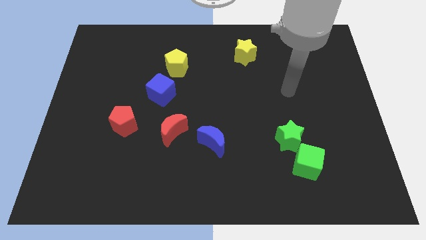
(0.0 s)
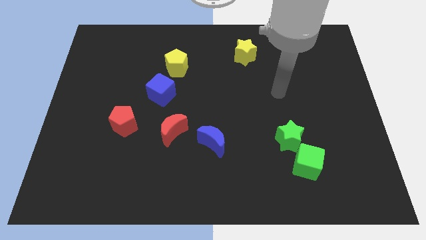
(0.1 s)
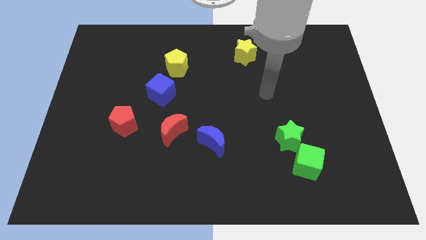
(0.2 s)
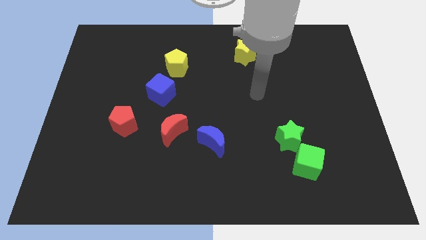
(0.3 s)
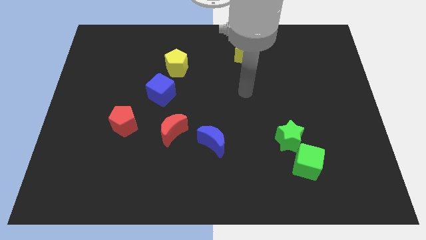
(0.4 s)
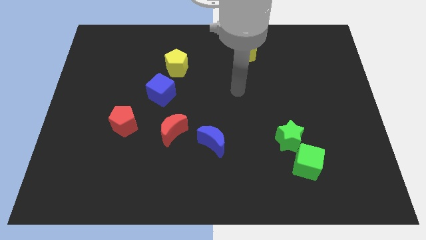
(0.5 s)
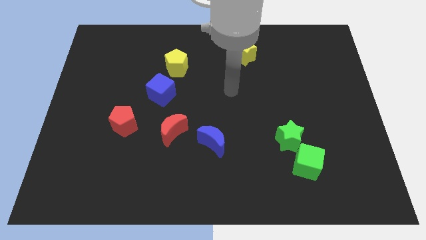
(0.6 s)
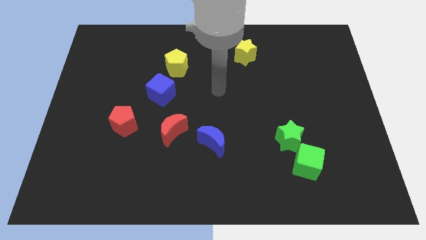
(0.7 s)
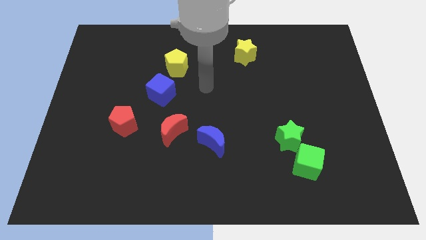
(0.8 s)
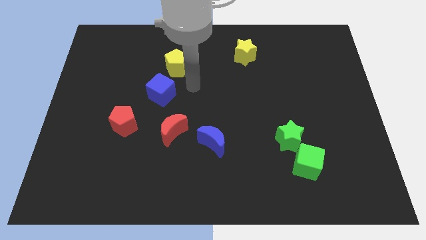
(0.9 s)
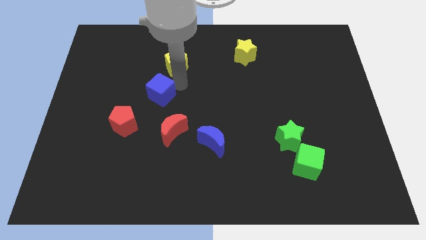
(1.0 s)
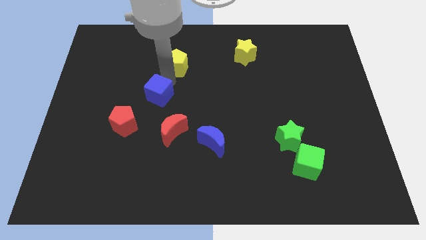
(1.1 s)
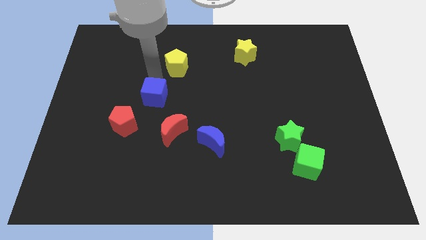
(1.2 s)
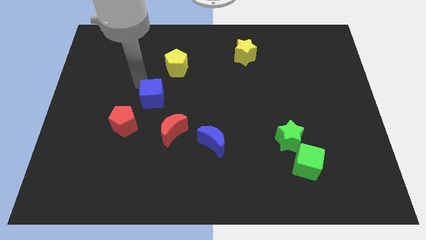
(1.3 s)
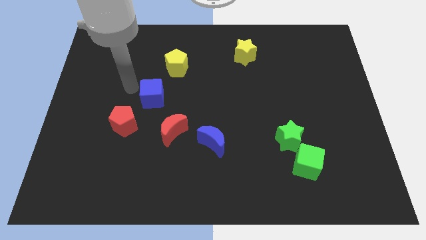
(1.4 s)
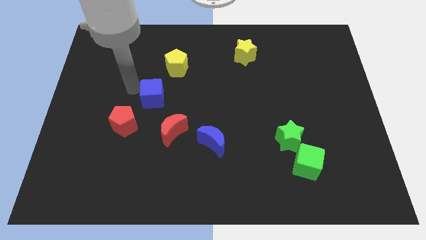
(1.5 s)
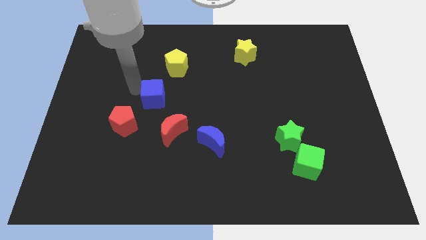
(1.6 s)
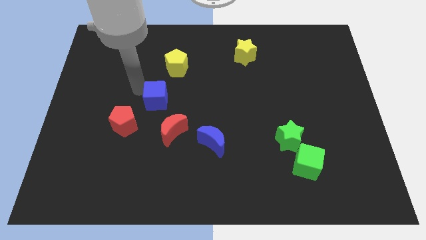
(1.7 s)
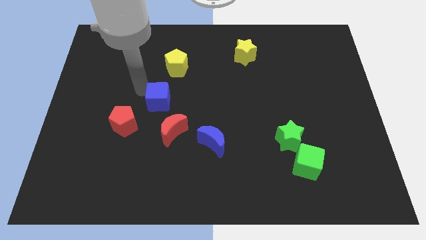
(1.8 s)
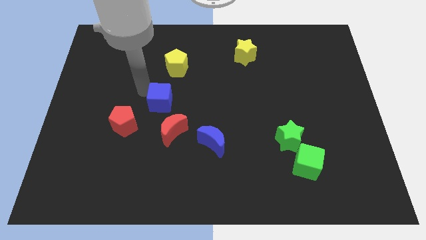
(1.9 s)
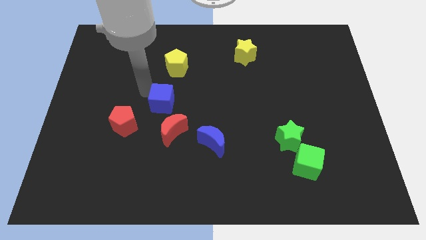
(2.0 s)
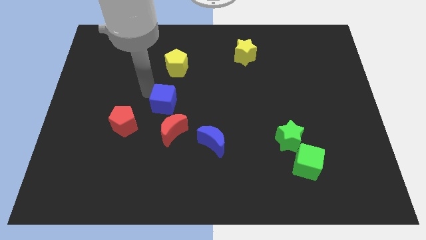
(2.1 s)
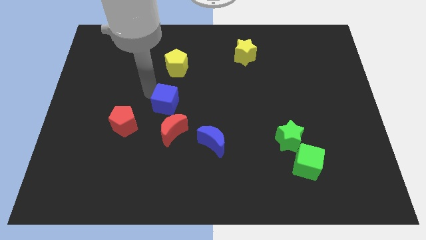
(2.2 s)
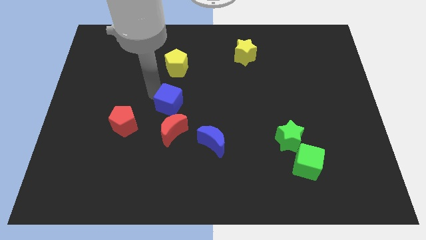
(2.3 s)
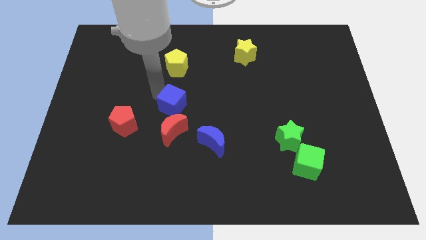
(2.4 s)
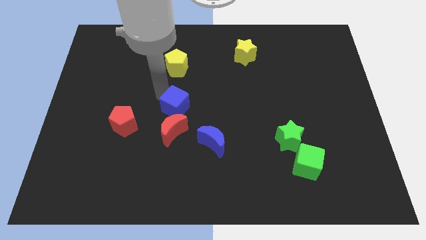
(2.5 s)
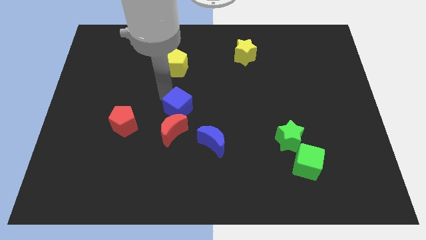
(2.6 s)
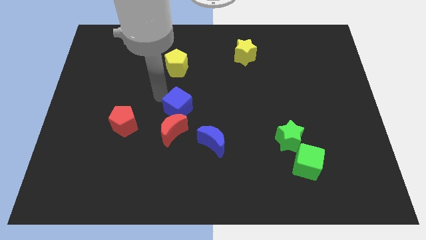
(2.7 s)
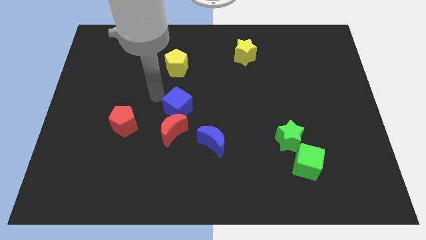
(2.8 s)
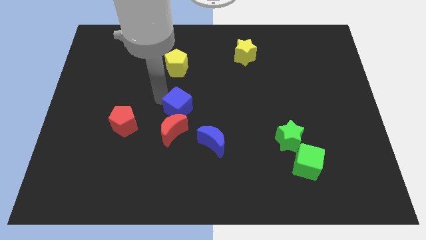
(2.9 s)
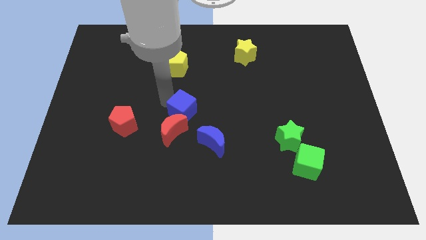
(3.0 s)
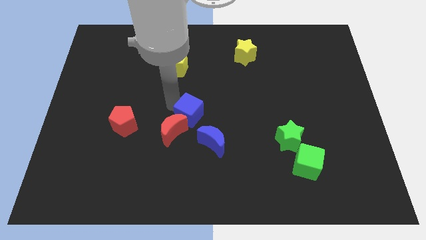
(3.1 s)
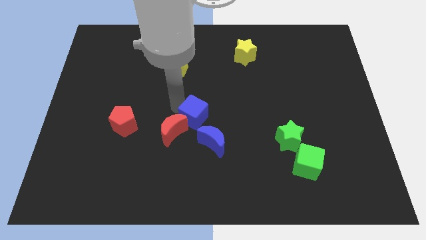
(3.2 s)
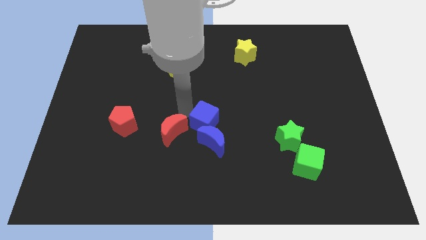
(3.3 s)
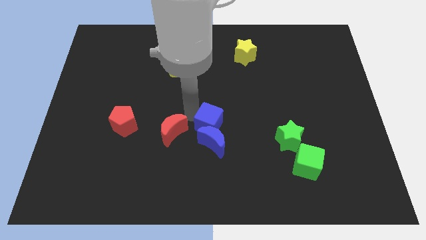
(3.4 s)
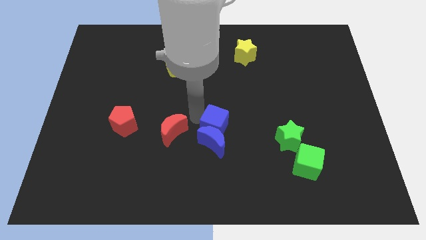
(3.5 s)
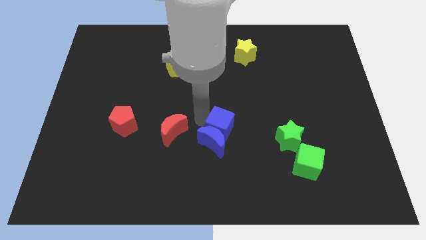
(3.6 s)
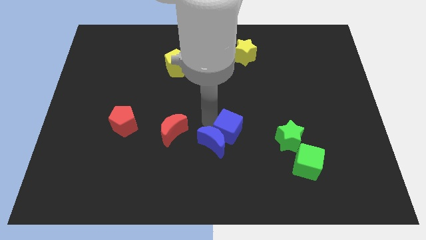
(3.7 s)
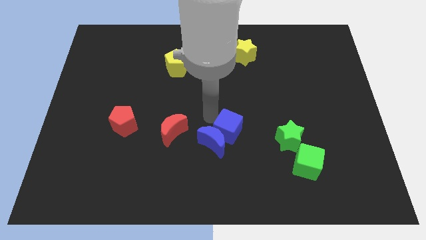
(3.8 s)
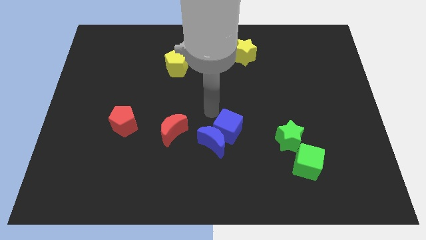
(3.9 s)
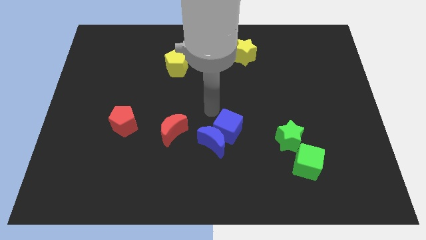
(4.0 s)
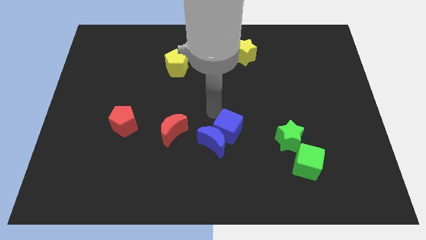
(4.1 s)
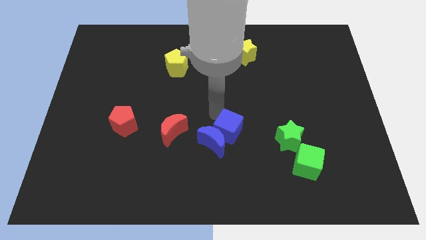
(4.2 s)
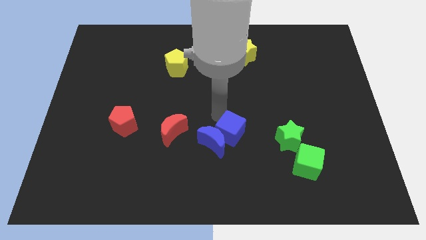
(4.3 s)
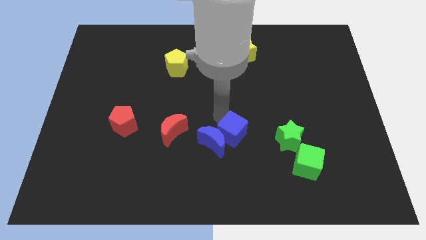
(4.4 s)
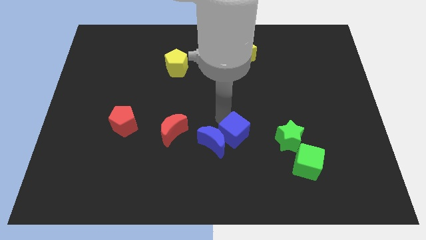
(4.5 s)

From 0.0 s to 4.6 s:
slide the blue cube diagonally downwards and to the right

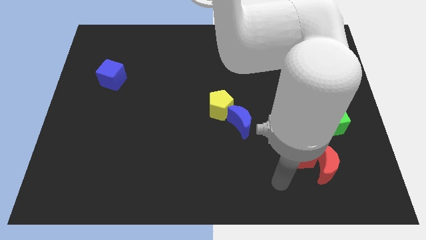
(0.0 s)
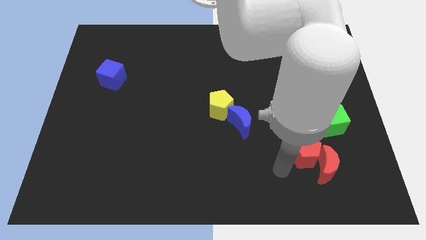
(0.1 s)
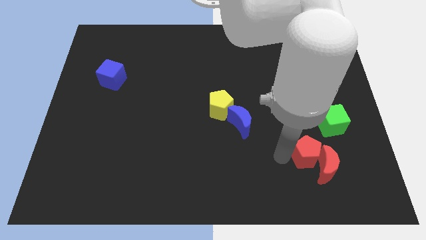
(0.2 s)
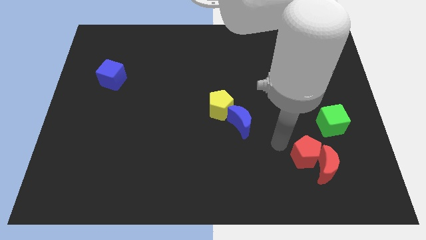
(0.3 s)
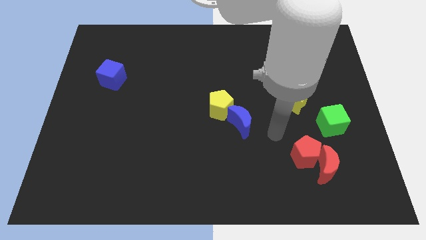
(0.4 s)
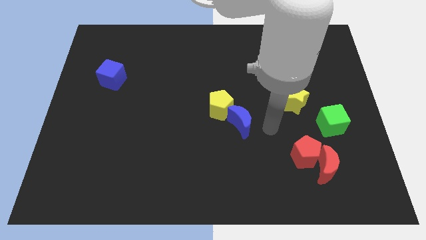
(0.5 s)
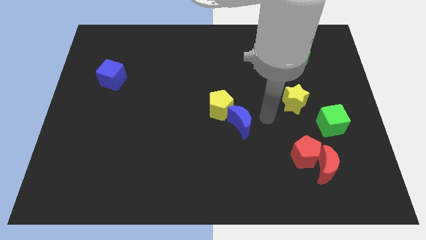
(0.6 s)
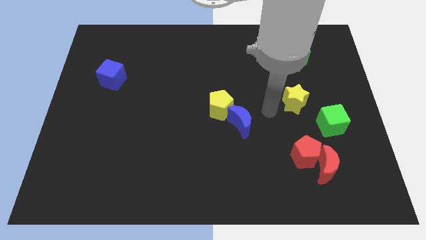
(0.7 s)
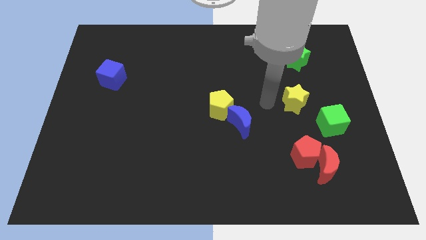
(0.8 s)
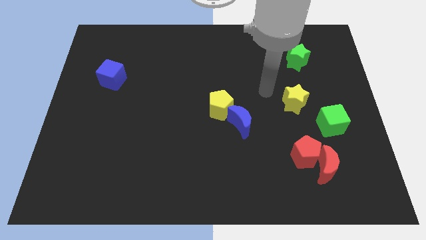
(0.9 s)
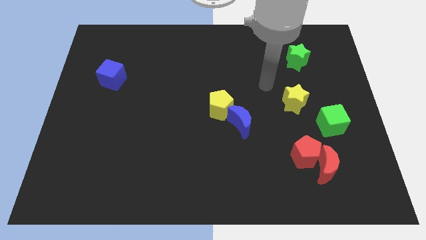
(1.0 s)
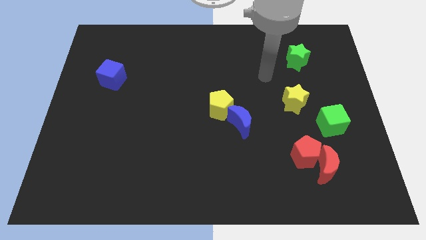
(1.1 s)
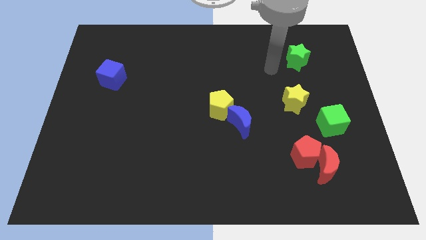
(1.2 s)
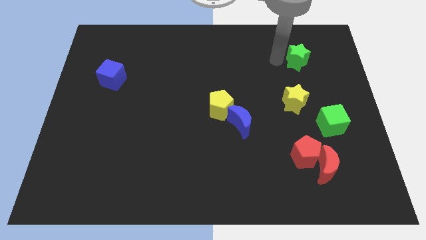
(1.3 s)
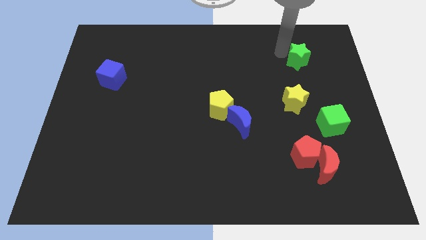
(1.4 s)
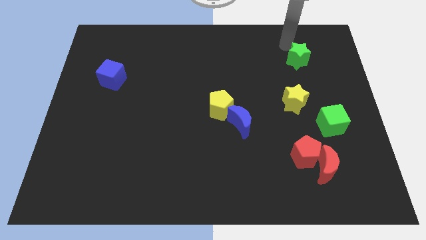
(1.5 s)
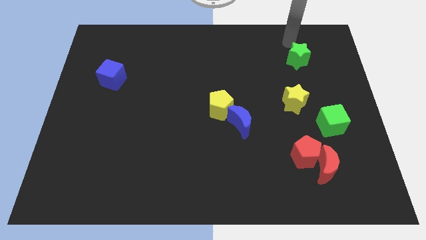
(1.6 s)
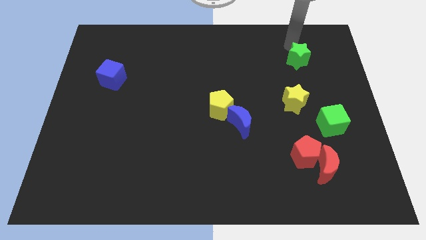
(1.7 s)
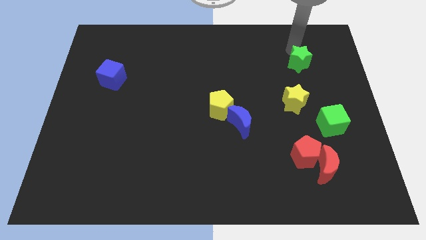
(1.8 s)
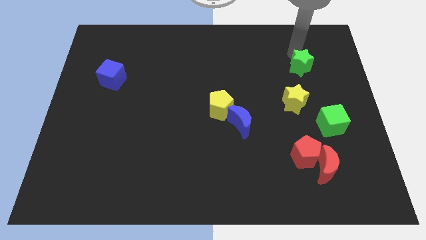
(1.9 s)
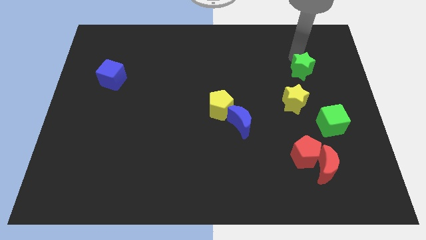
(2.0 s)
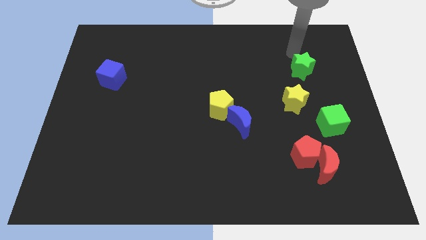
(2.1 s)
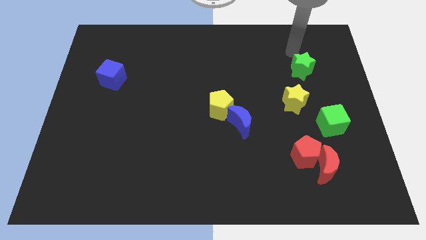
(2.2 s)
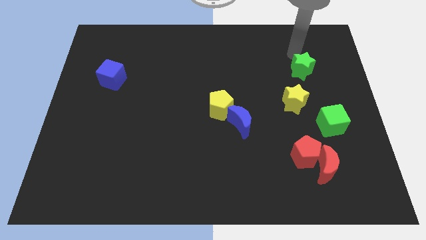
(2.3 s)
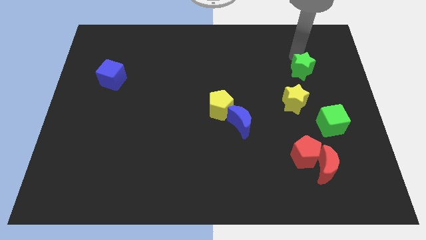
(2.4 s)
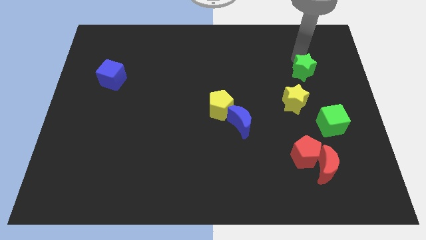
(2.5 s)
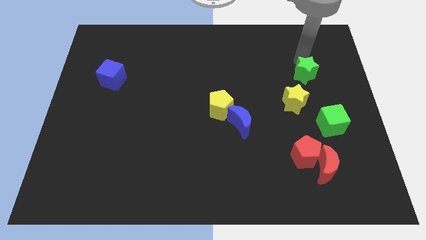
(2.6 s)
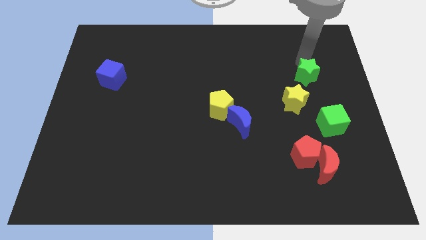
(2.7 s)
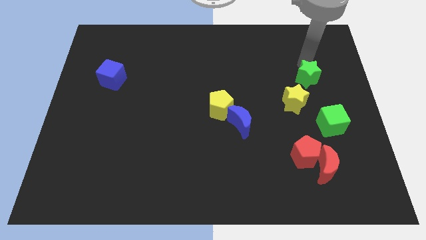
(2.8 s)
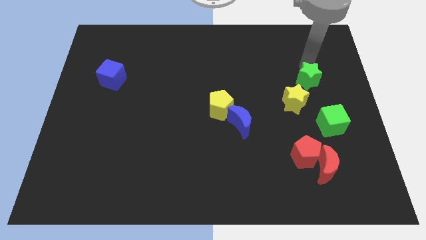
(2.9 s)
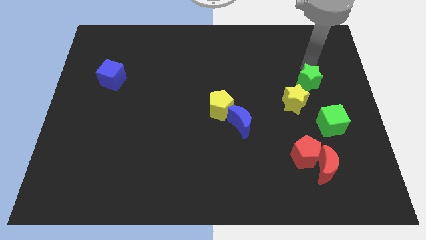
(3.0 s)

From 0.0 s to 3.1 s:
push the green star down a little bit

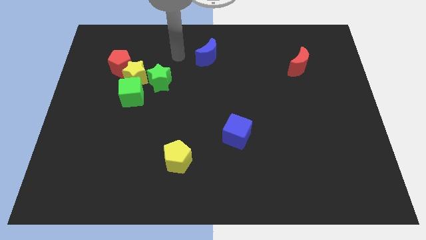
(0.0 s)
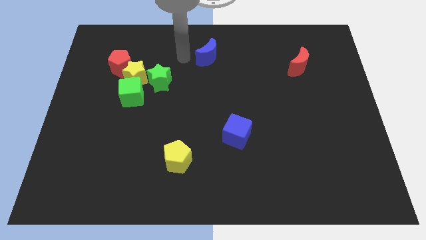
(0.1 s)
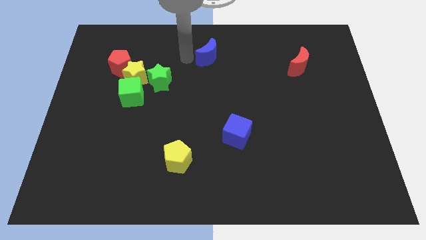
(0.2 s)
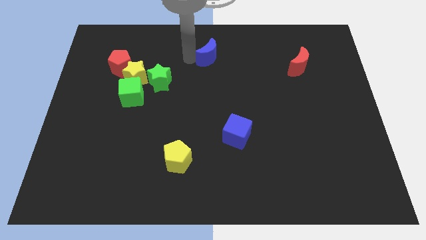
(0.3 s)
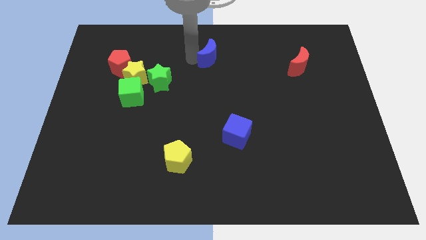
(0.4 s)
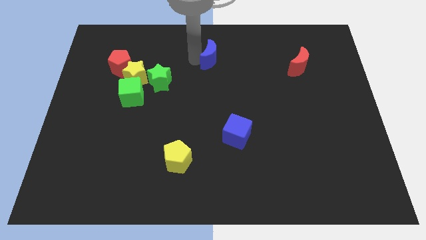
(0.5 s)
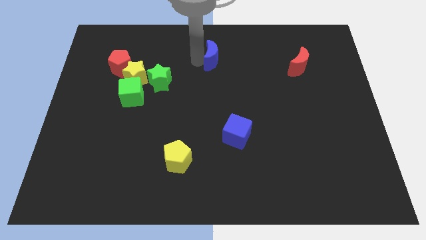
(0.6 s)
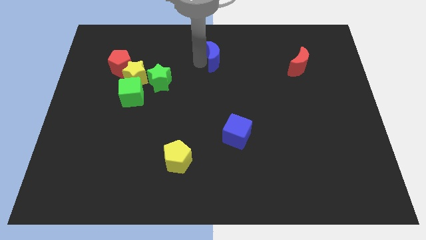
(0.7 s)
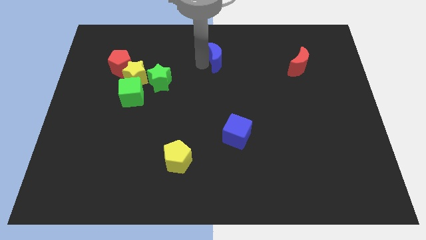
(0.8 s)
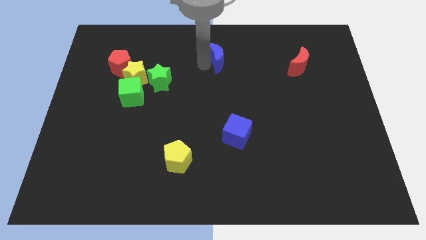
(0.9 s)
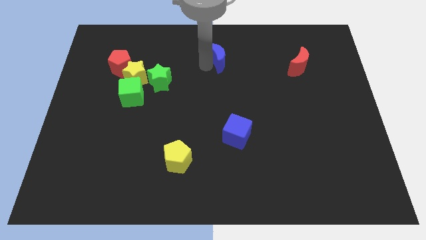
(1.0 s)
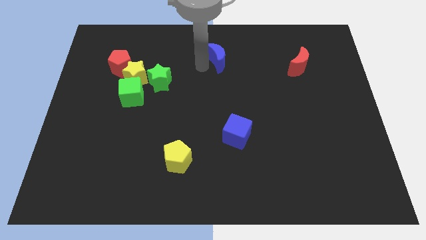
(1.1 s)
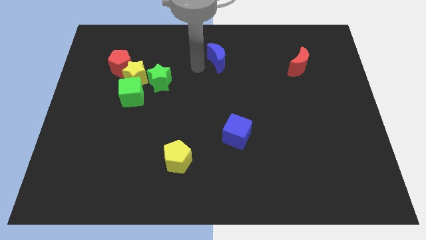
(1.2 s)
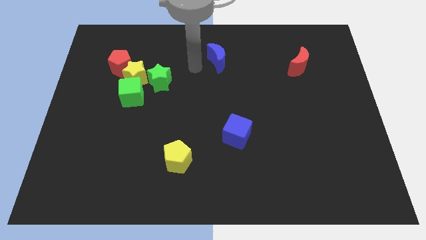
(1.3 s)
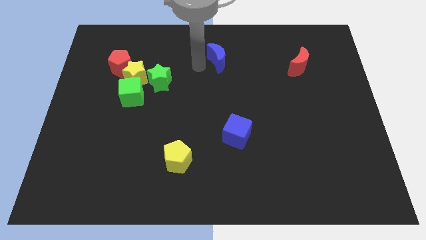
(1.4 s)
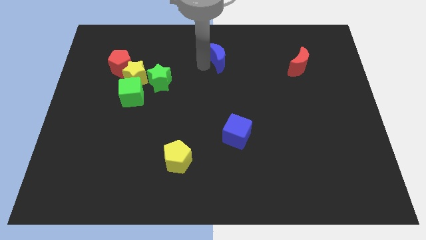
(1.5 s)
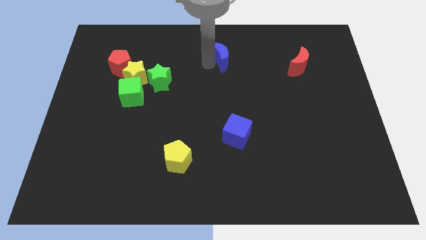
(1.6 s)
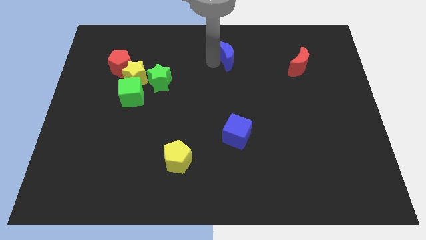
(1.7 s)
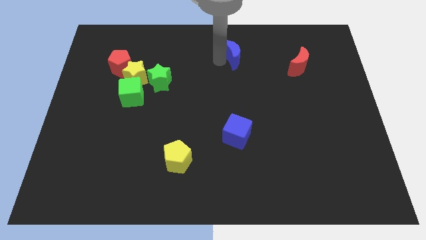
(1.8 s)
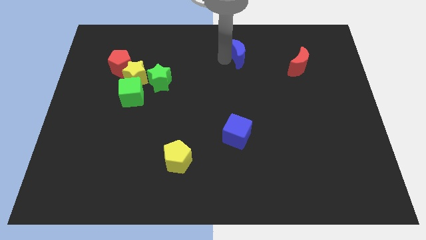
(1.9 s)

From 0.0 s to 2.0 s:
slightly slide the blue moon to the right
